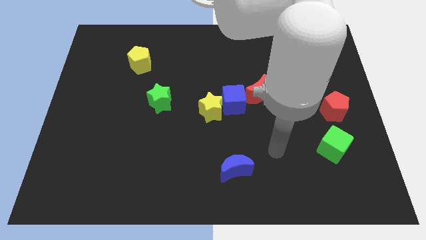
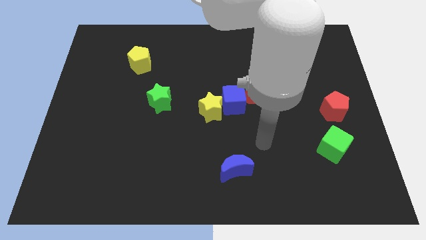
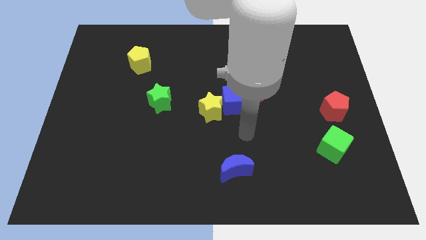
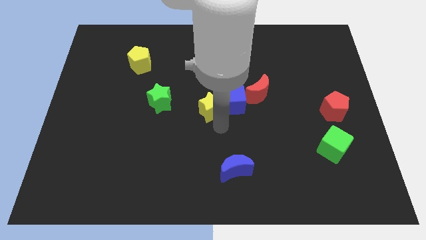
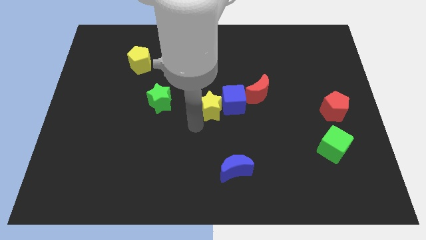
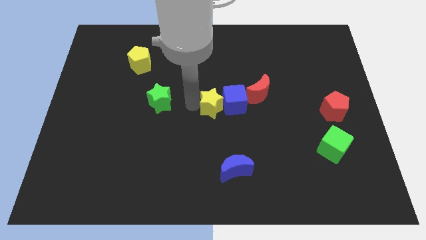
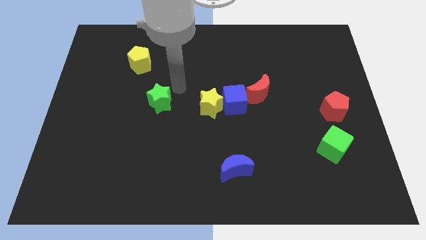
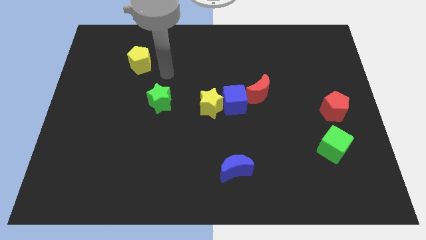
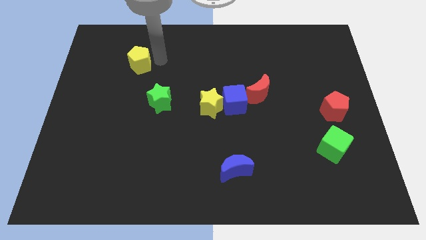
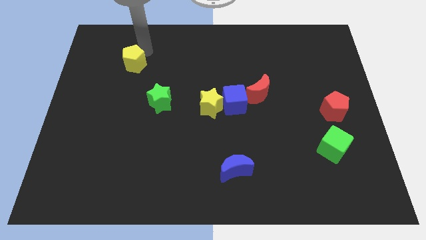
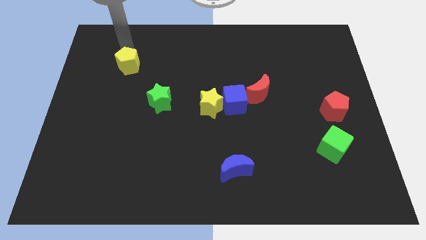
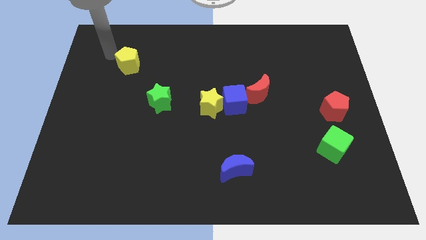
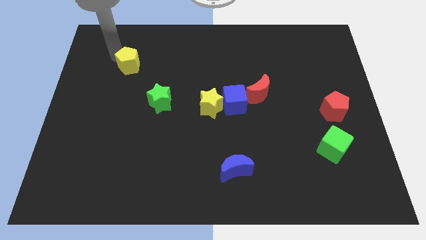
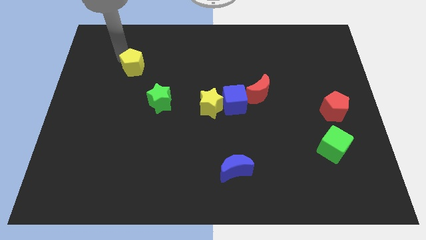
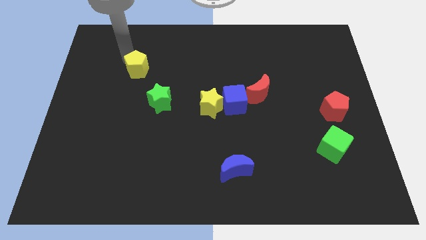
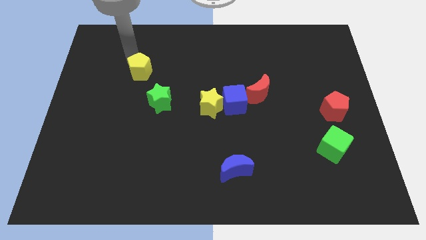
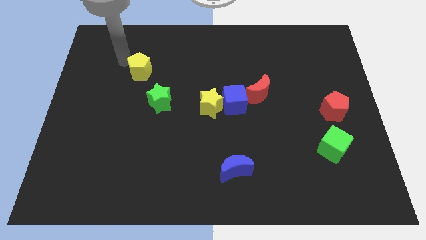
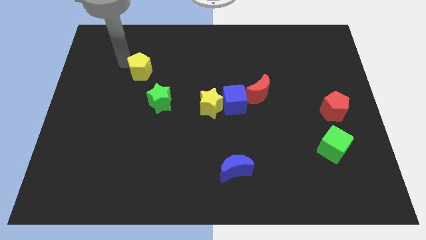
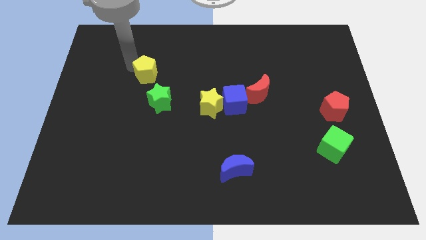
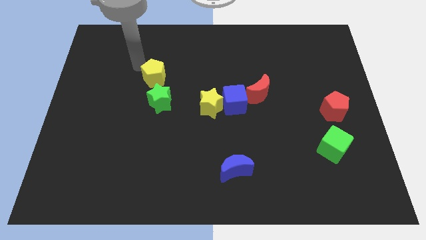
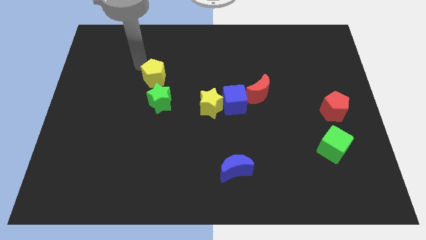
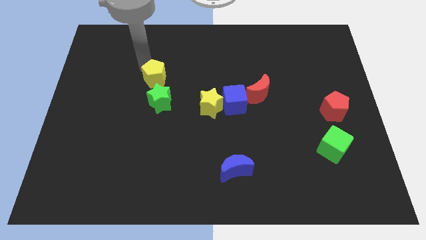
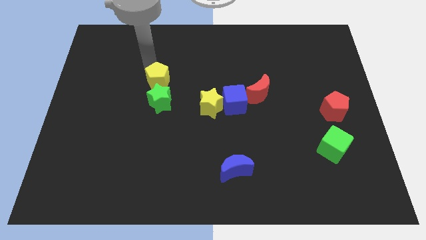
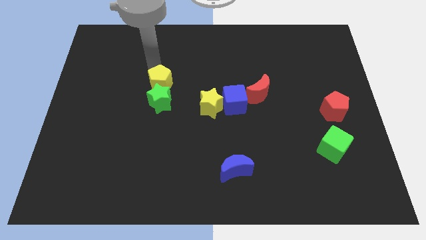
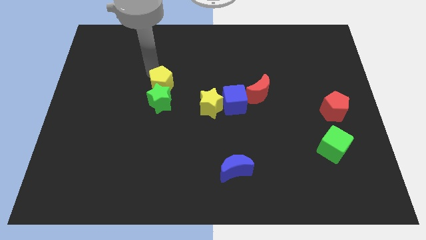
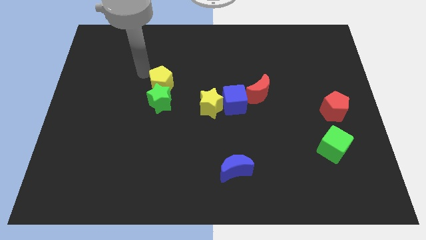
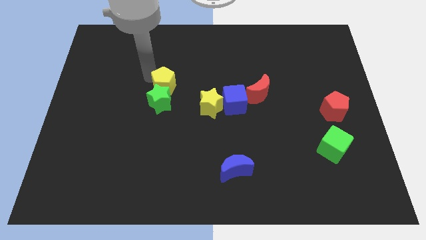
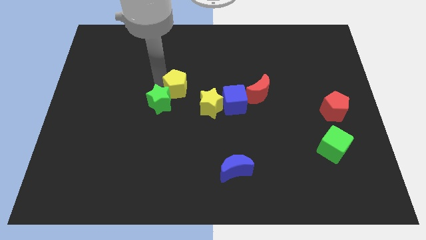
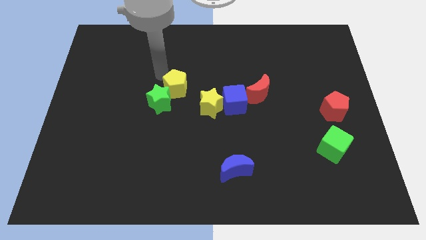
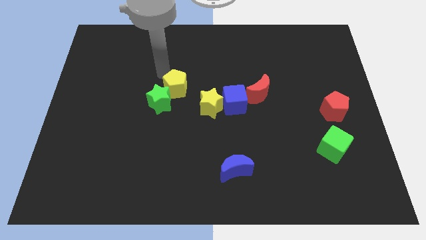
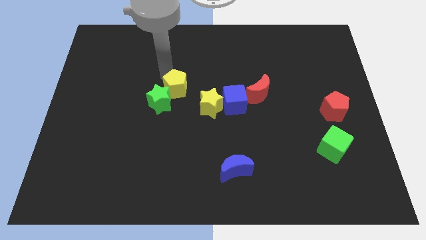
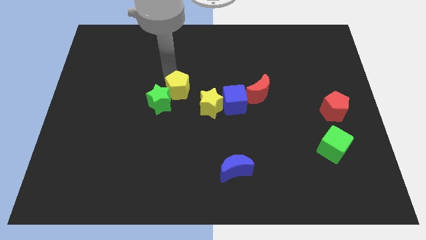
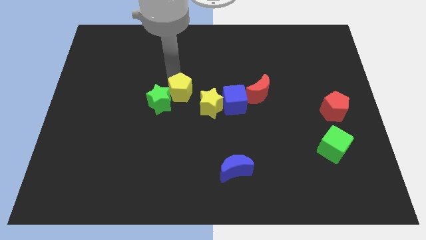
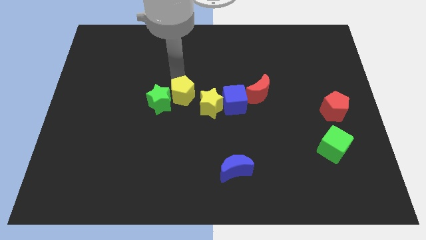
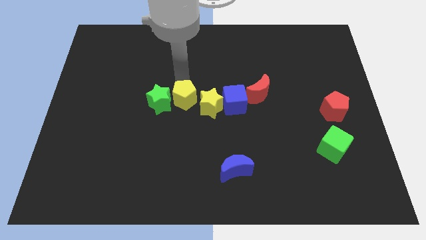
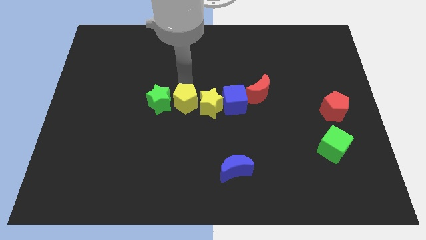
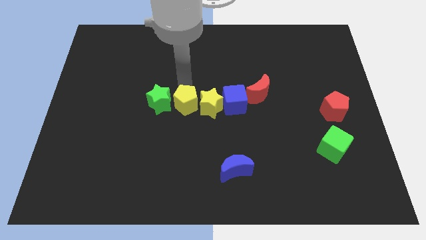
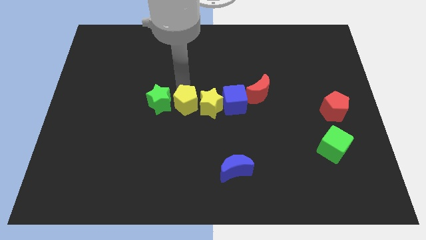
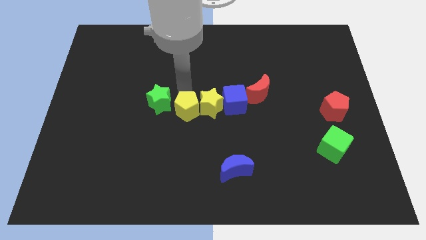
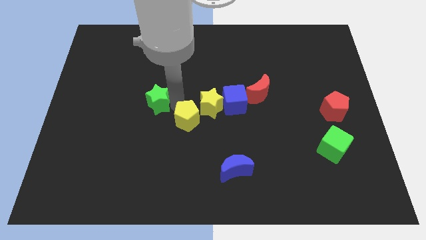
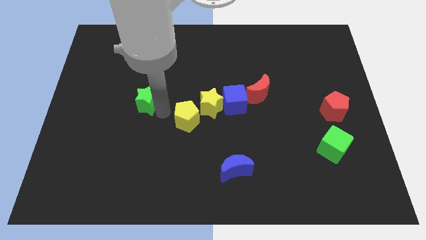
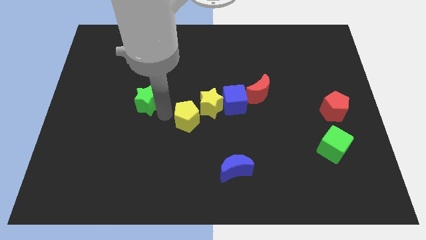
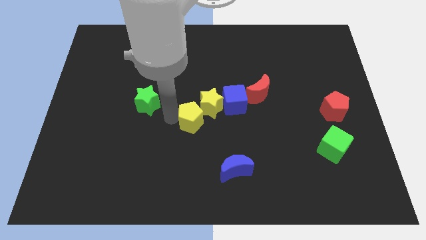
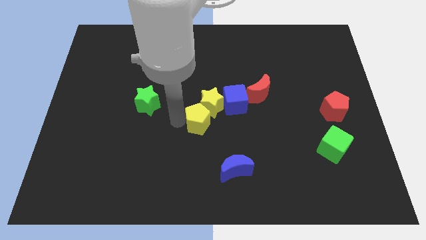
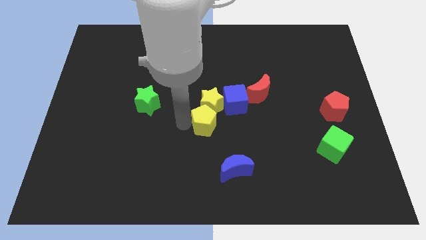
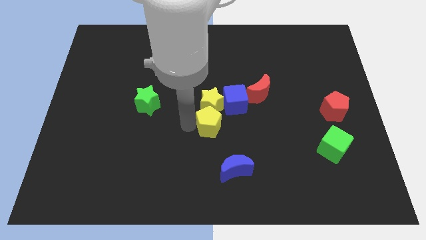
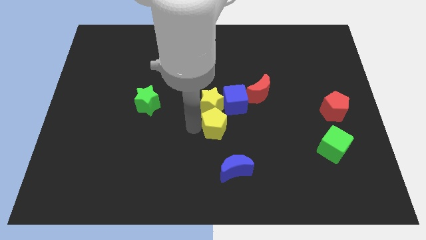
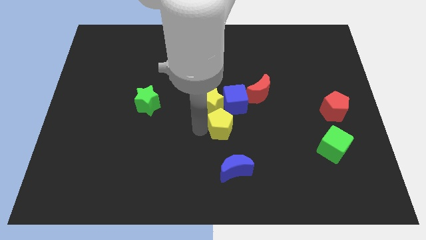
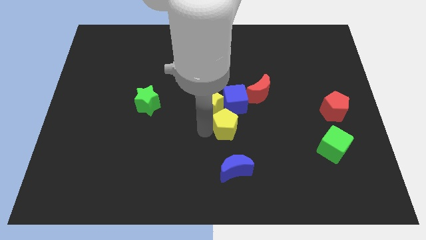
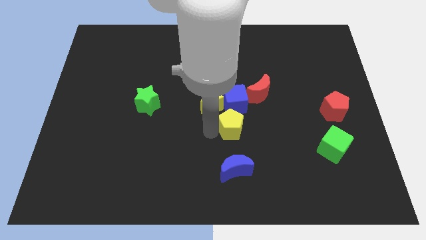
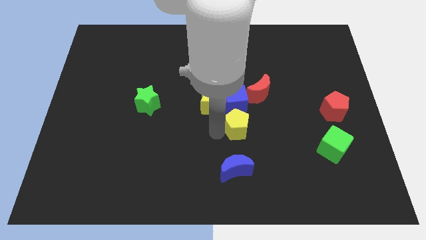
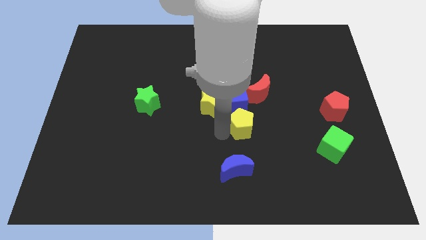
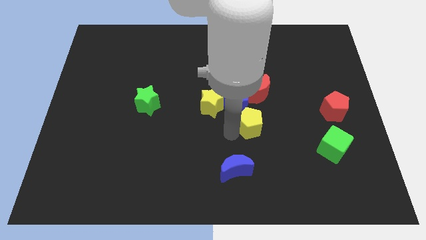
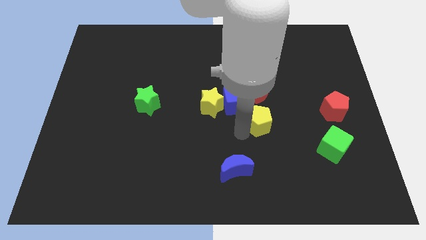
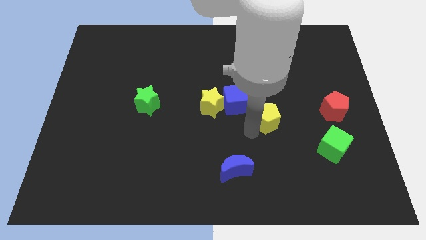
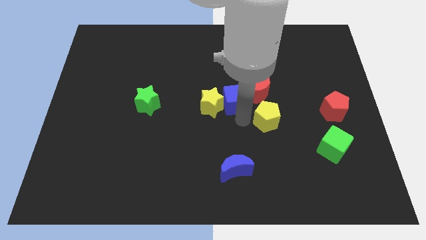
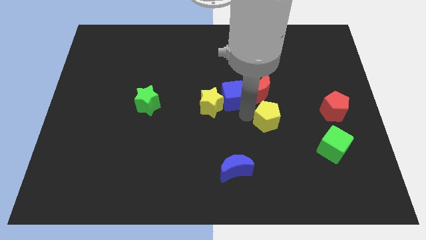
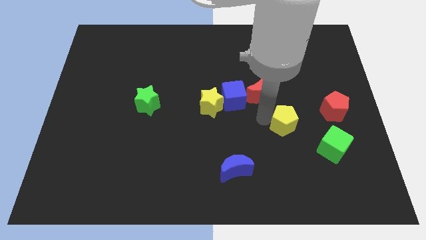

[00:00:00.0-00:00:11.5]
slide the yellow pentagon to the top left of the green cube
